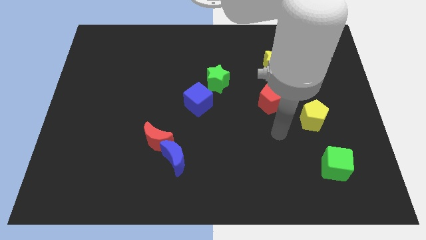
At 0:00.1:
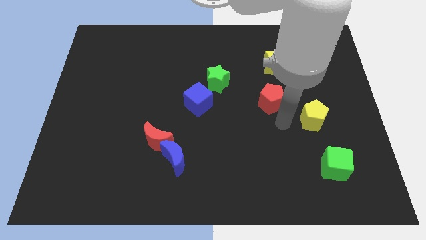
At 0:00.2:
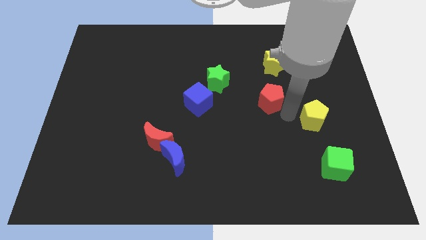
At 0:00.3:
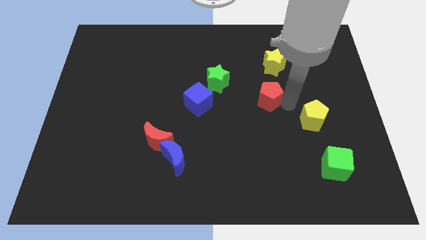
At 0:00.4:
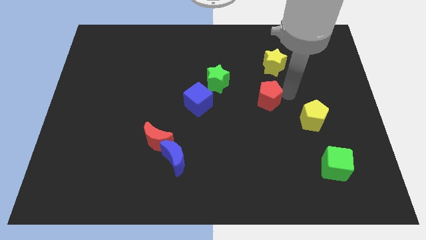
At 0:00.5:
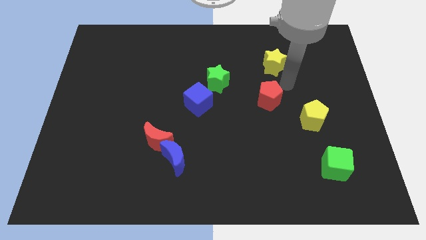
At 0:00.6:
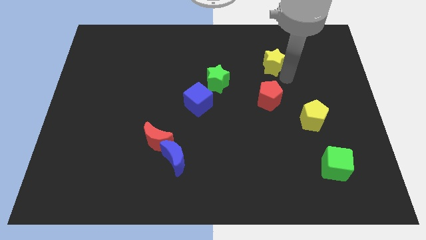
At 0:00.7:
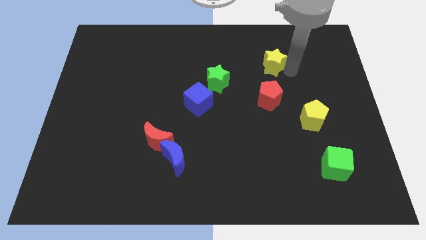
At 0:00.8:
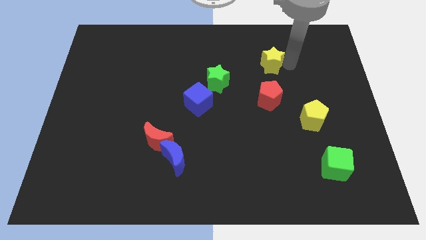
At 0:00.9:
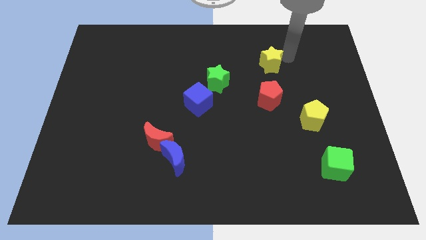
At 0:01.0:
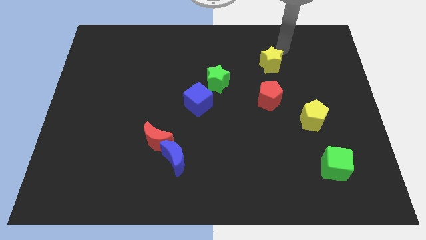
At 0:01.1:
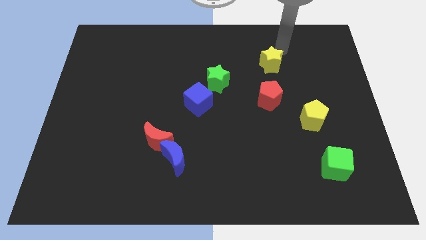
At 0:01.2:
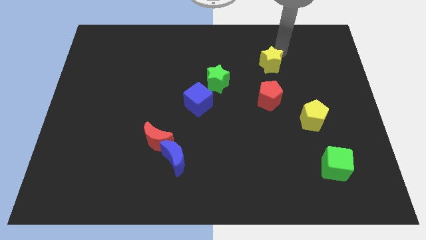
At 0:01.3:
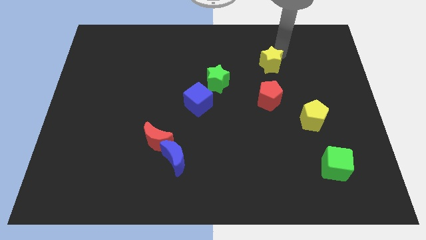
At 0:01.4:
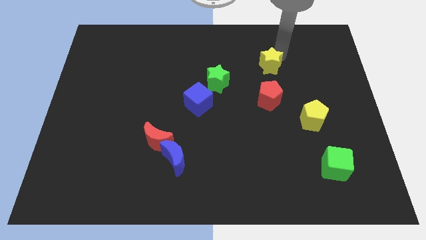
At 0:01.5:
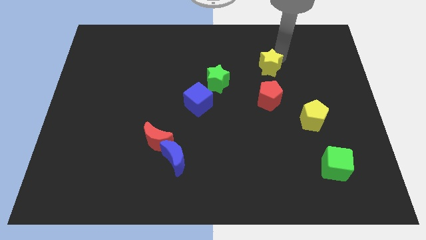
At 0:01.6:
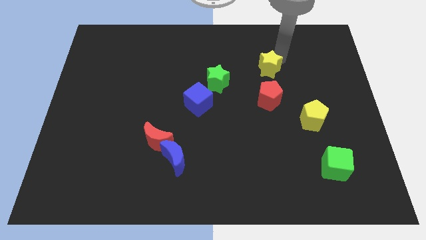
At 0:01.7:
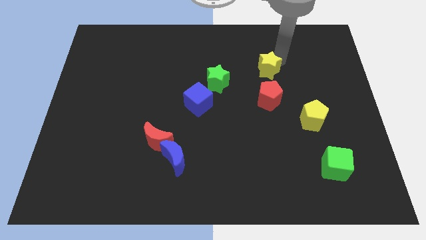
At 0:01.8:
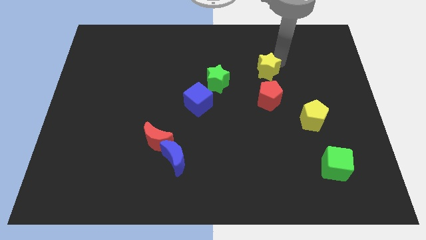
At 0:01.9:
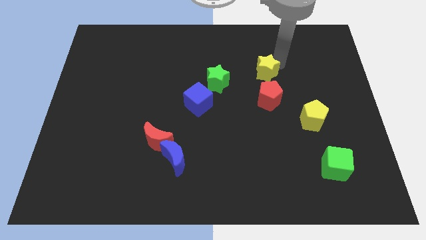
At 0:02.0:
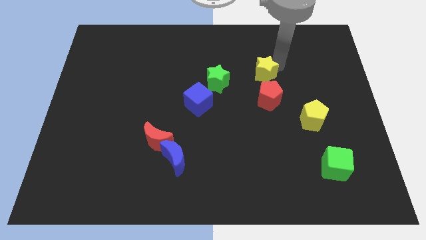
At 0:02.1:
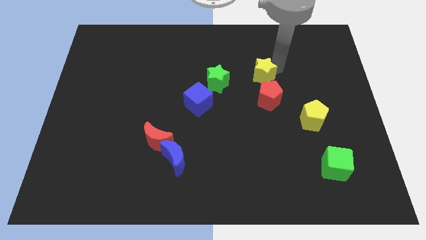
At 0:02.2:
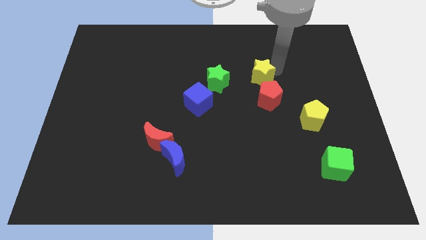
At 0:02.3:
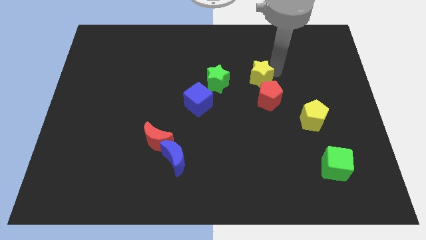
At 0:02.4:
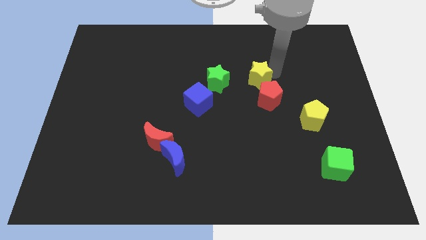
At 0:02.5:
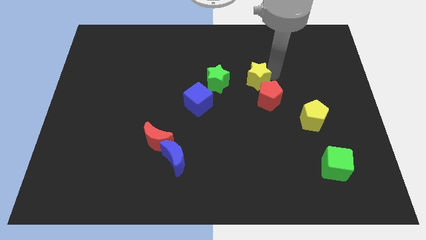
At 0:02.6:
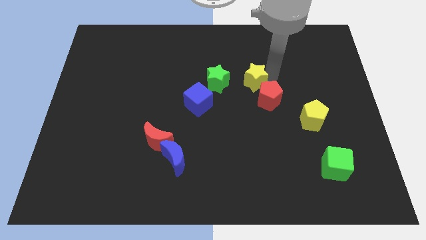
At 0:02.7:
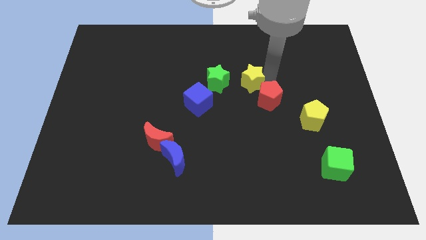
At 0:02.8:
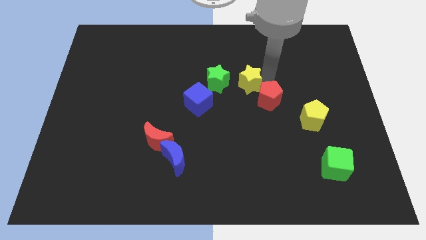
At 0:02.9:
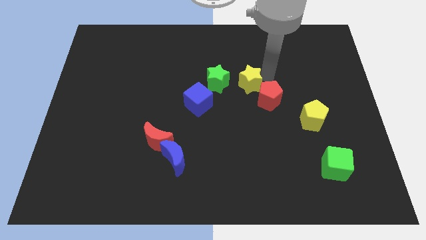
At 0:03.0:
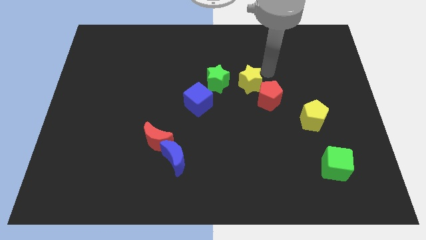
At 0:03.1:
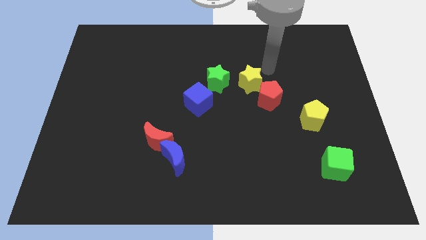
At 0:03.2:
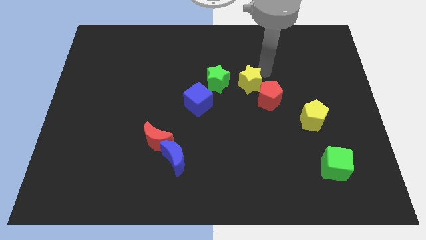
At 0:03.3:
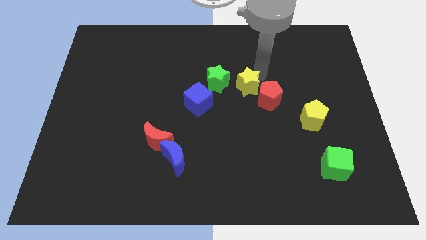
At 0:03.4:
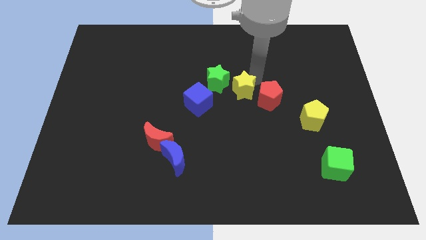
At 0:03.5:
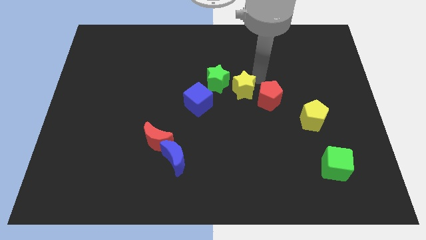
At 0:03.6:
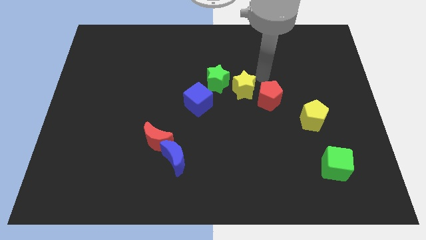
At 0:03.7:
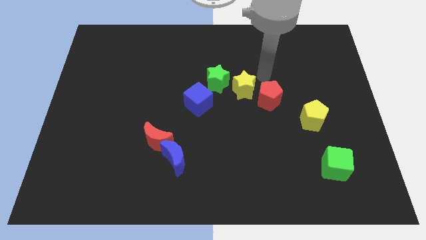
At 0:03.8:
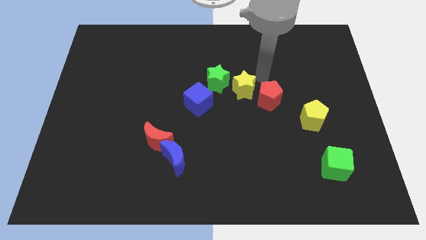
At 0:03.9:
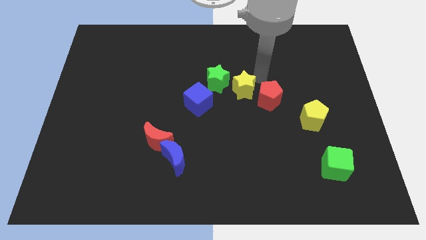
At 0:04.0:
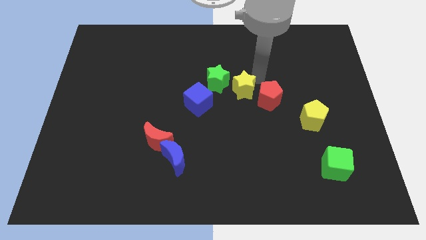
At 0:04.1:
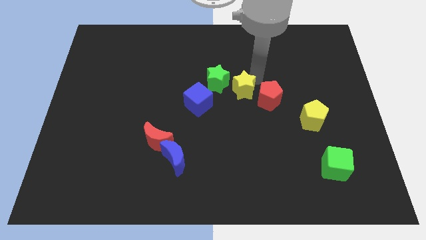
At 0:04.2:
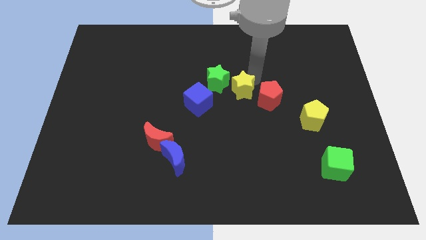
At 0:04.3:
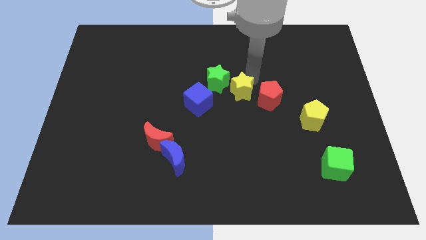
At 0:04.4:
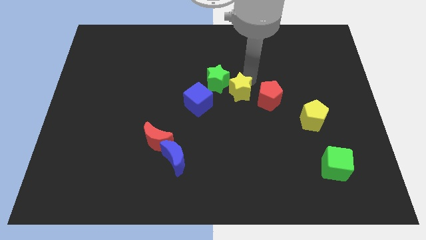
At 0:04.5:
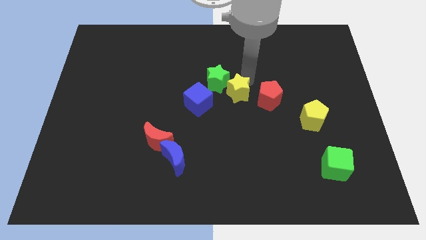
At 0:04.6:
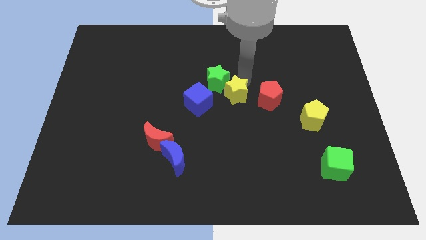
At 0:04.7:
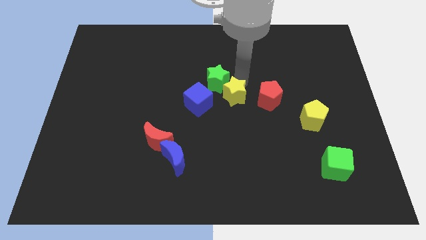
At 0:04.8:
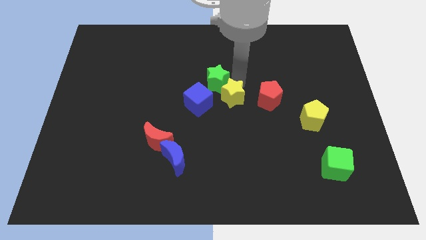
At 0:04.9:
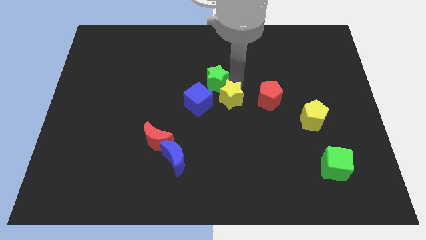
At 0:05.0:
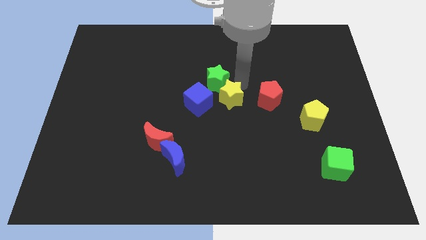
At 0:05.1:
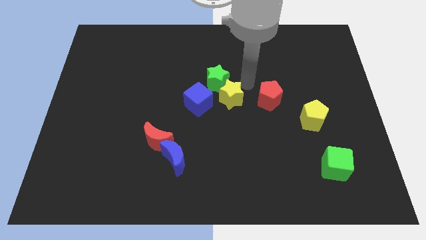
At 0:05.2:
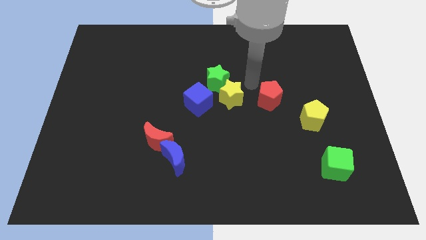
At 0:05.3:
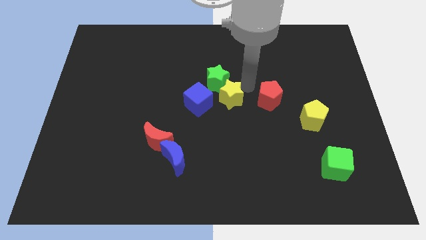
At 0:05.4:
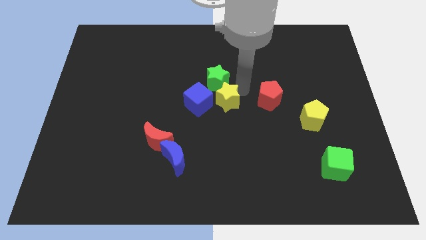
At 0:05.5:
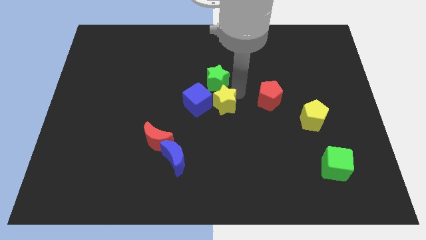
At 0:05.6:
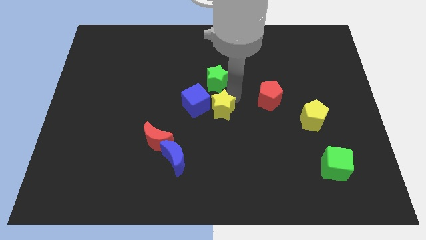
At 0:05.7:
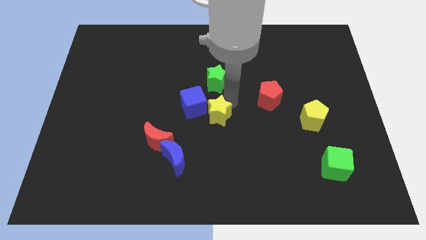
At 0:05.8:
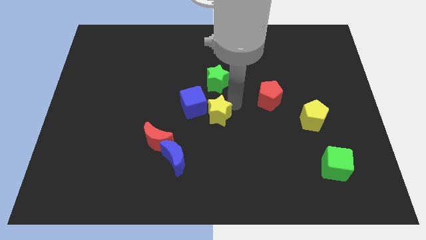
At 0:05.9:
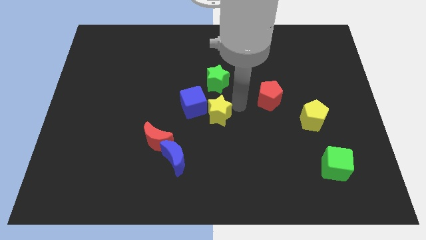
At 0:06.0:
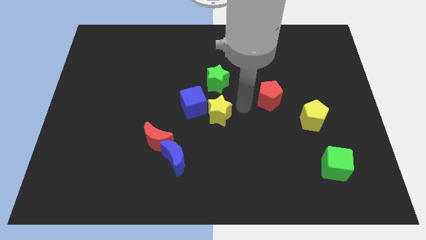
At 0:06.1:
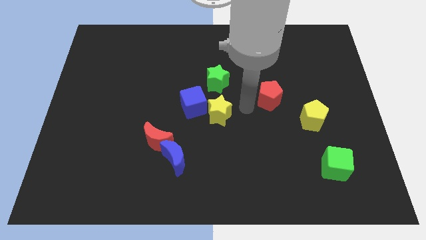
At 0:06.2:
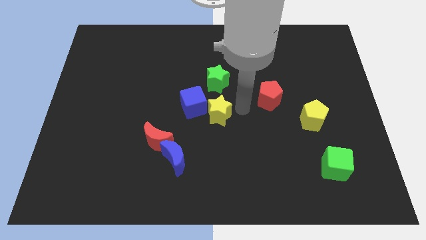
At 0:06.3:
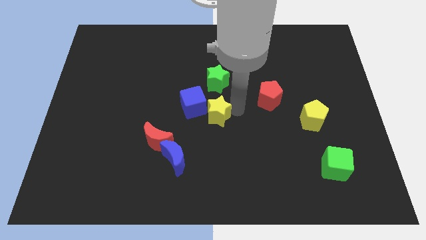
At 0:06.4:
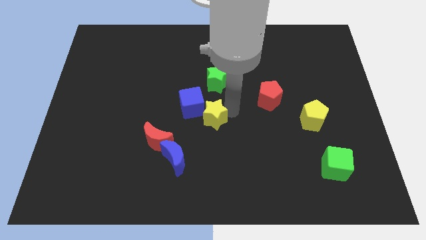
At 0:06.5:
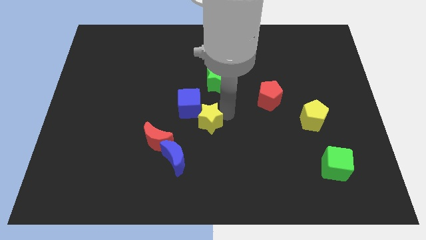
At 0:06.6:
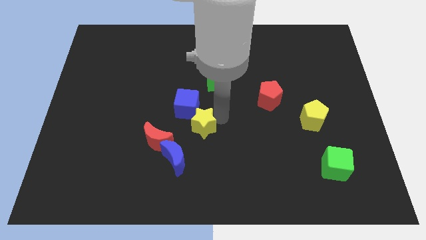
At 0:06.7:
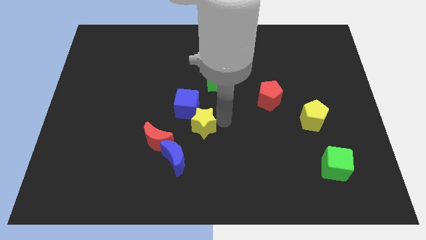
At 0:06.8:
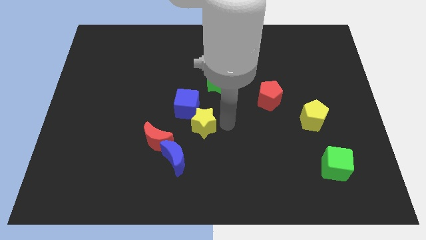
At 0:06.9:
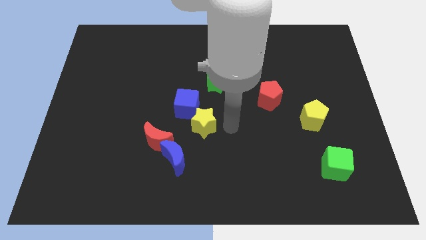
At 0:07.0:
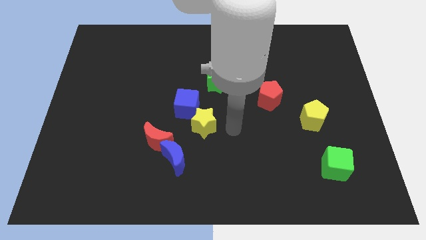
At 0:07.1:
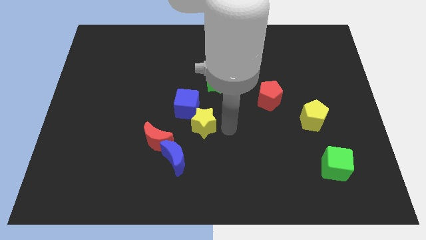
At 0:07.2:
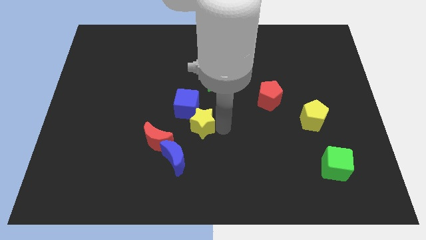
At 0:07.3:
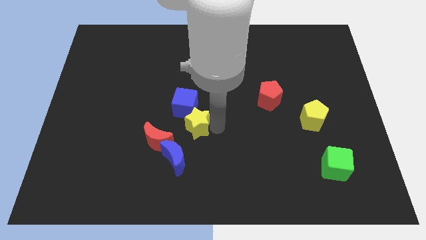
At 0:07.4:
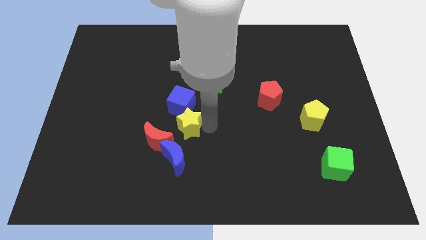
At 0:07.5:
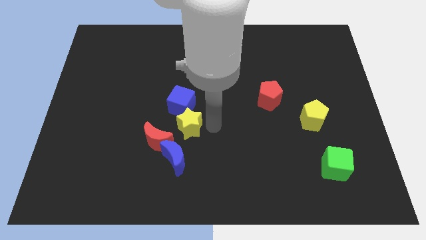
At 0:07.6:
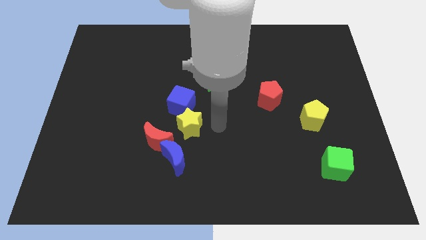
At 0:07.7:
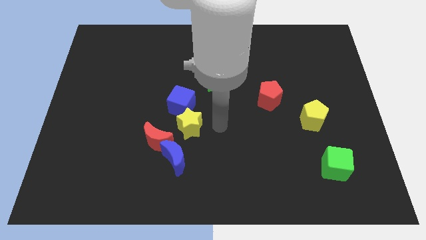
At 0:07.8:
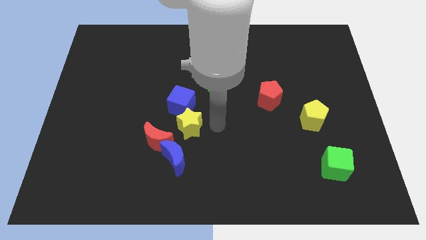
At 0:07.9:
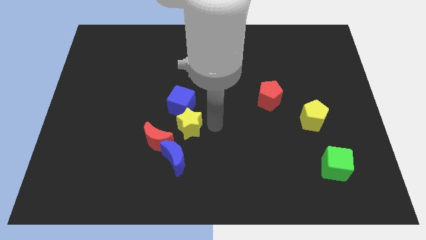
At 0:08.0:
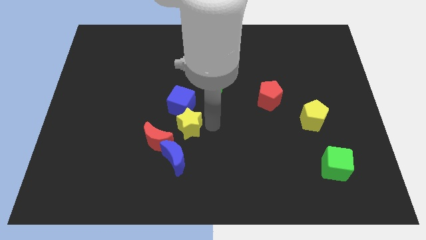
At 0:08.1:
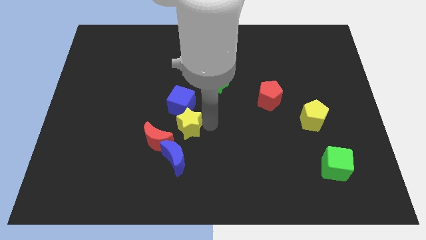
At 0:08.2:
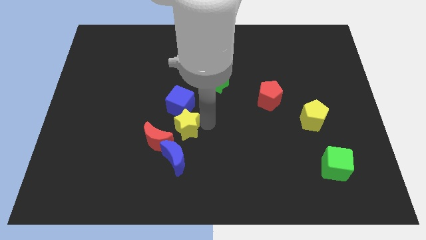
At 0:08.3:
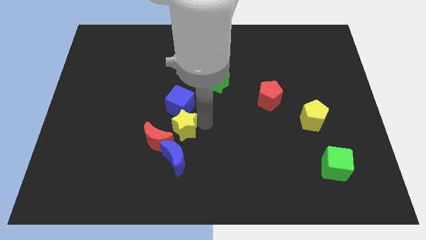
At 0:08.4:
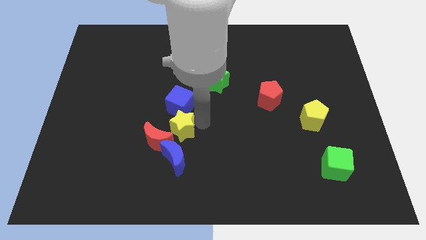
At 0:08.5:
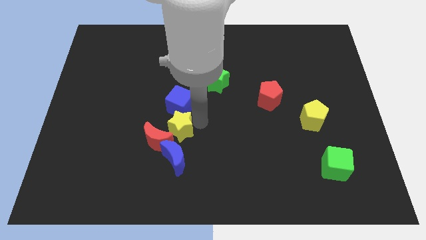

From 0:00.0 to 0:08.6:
move the yellow star towards the red moon
